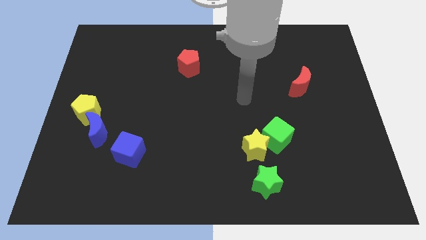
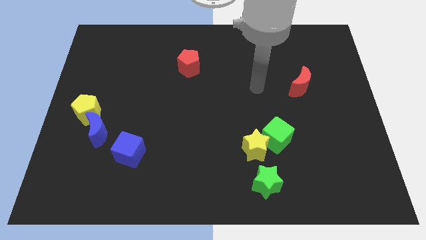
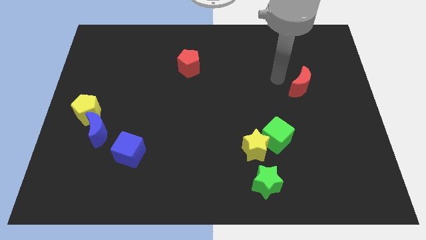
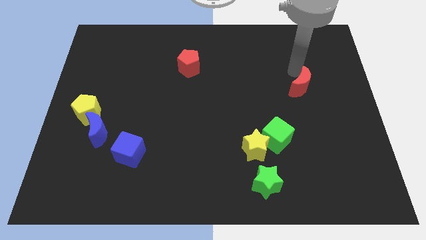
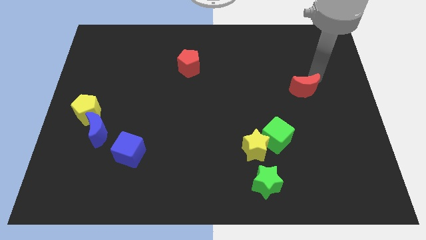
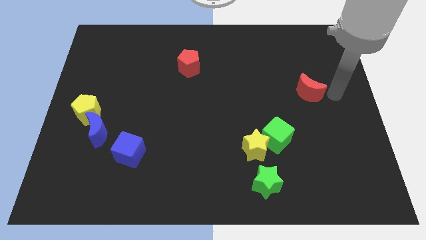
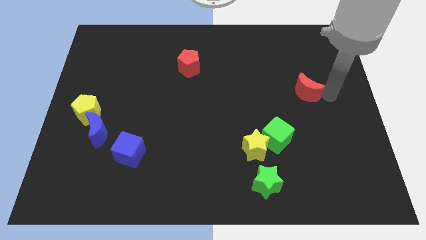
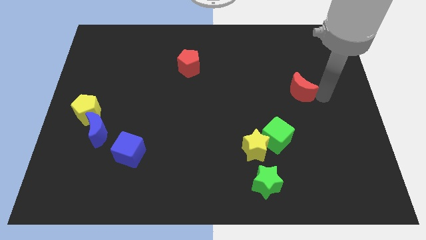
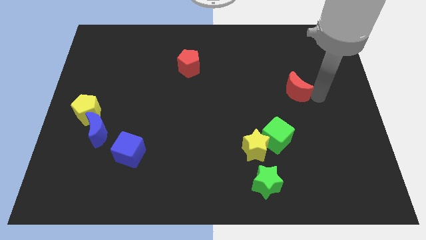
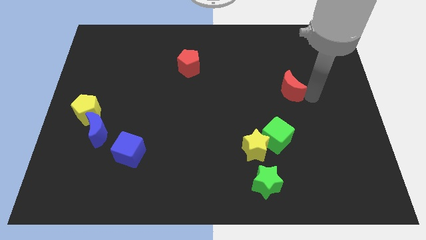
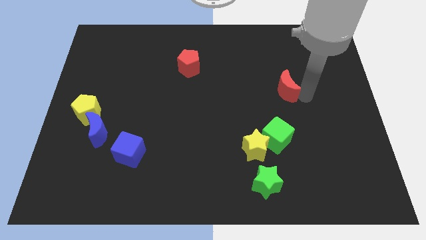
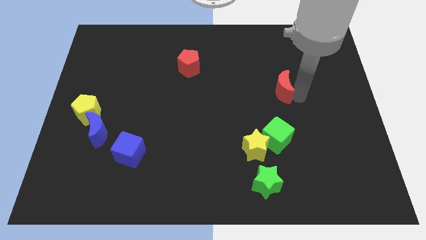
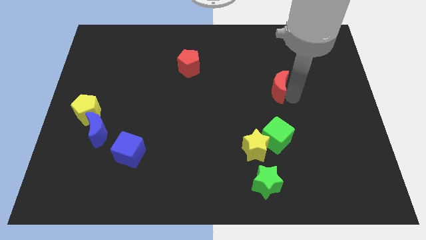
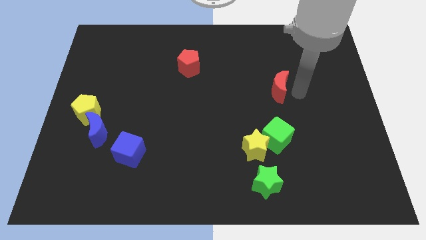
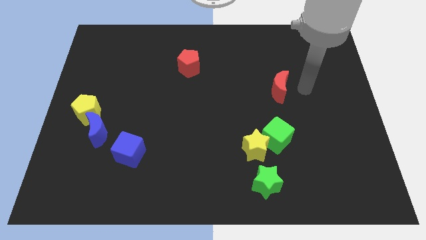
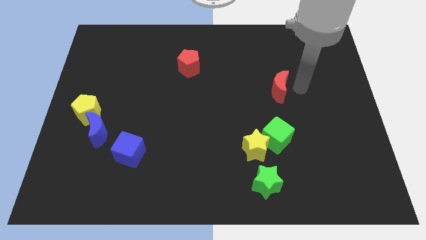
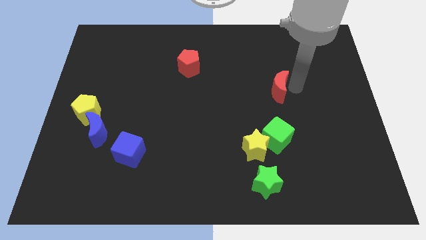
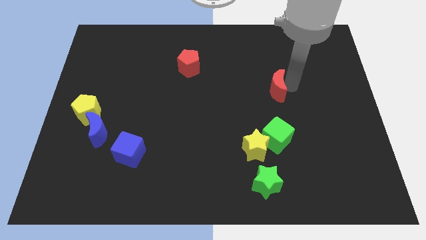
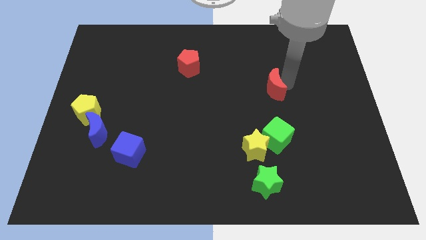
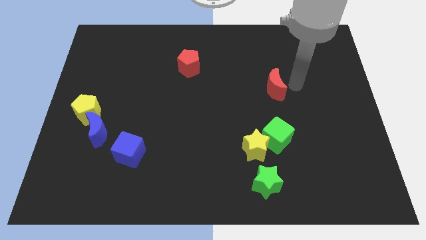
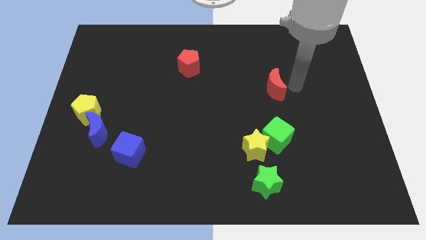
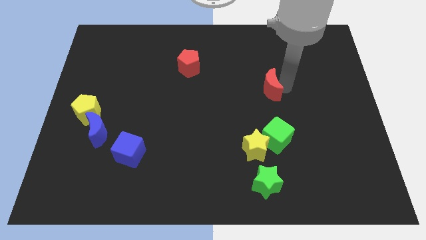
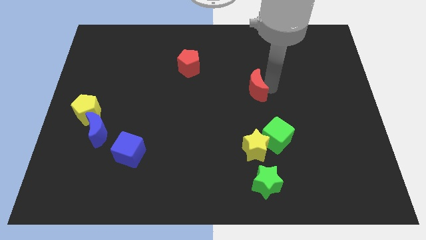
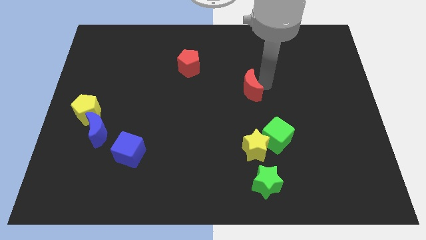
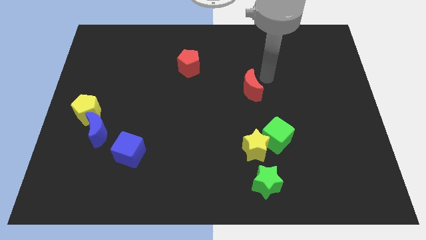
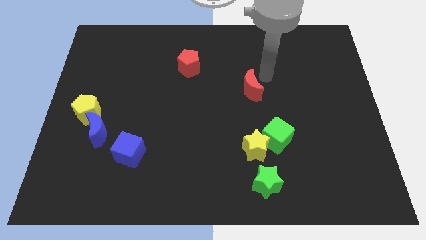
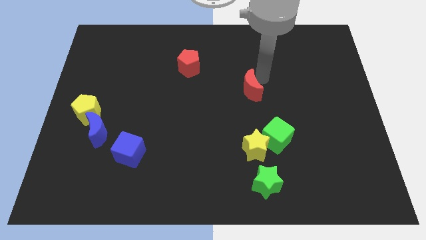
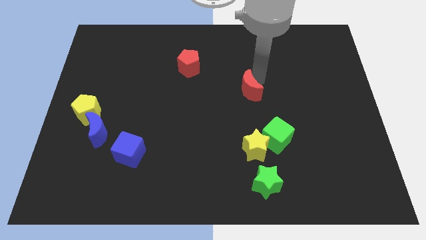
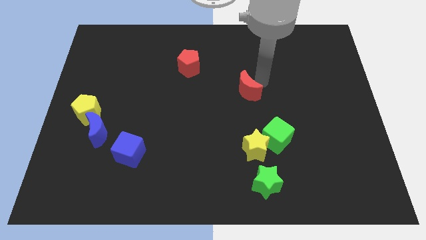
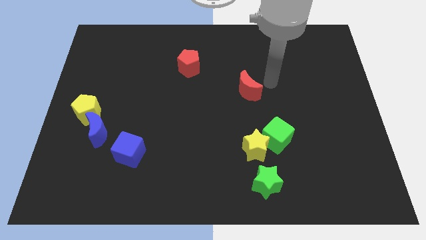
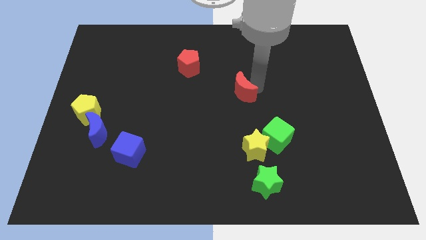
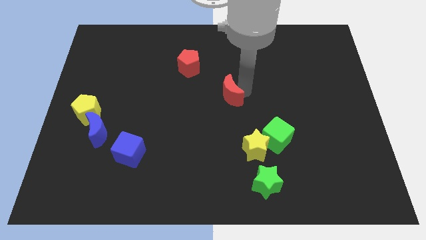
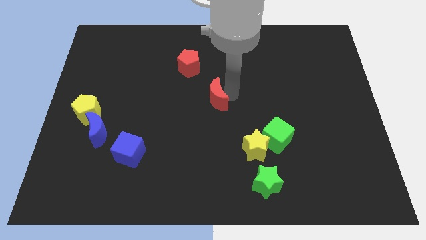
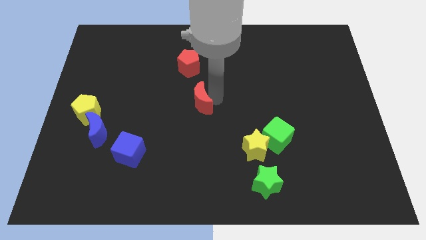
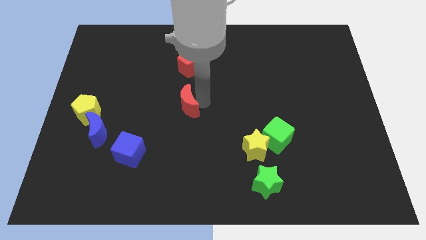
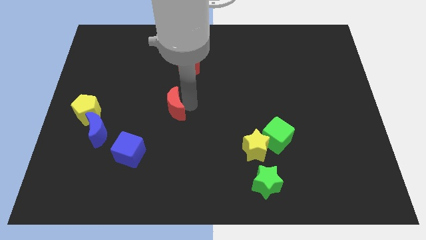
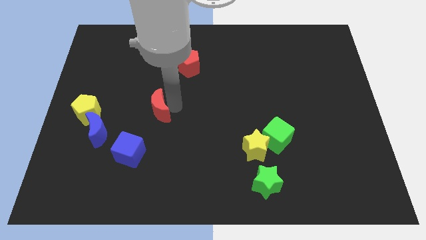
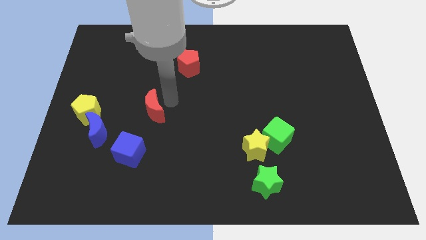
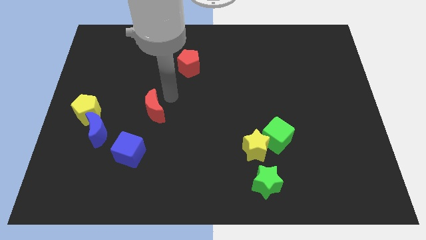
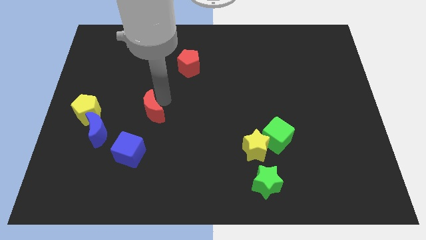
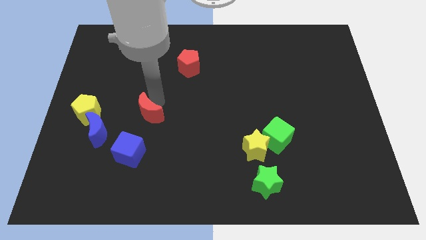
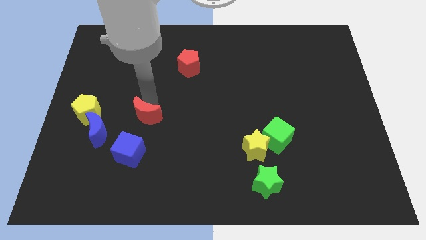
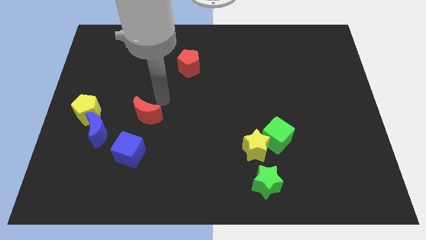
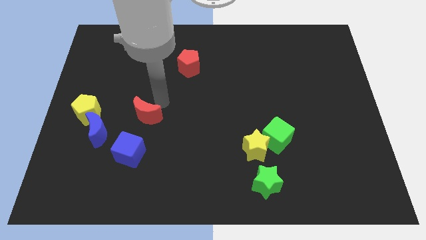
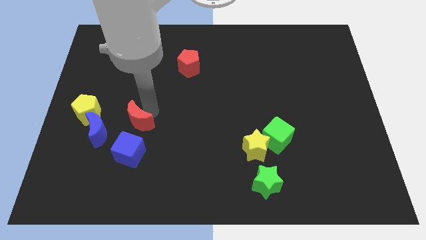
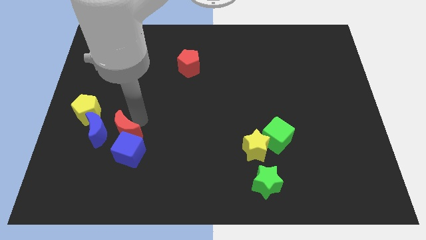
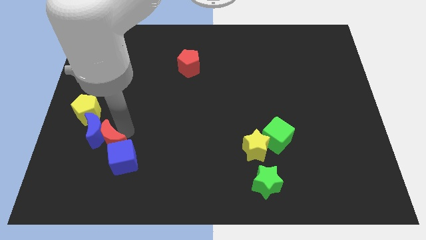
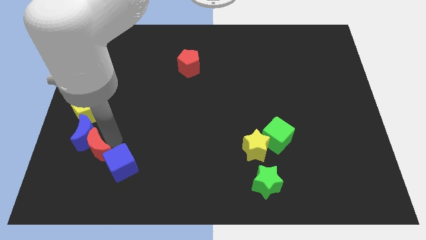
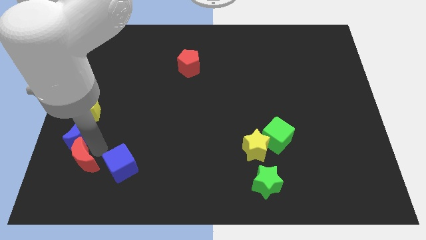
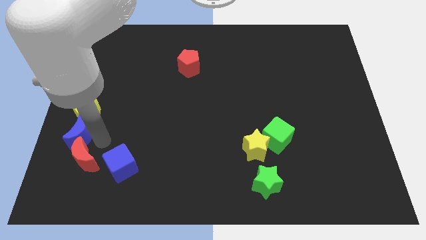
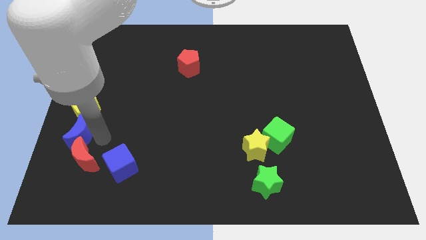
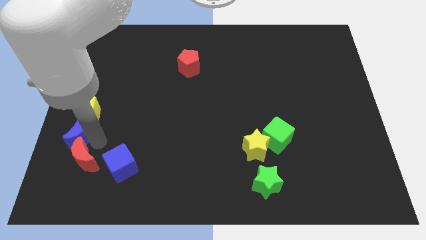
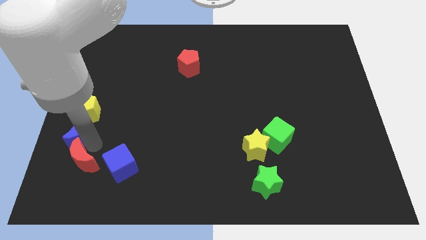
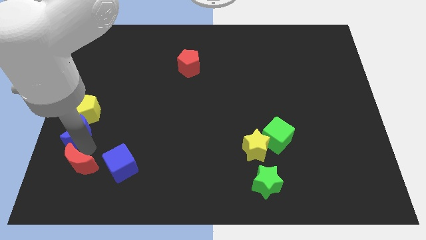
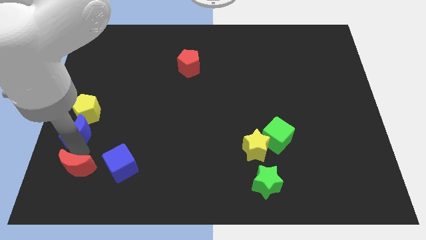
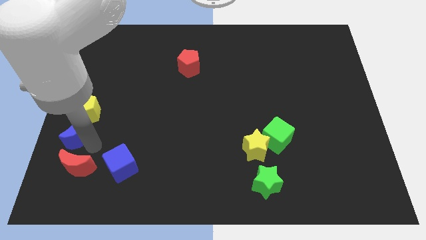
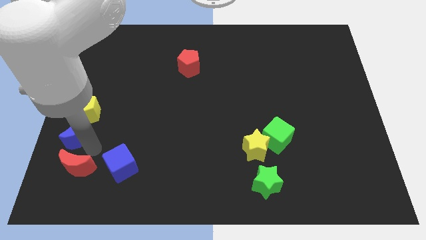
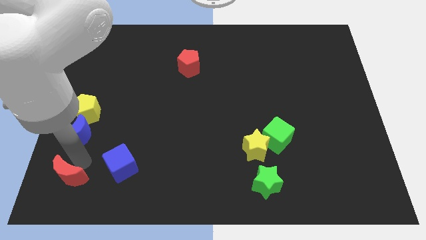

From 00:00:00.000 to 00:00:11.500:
move the red moon to the bottom left corner
